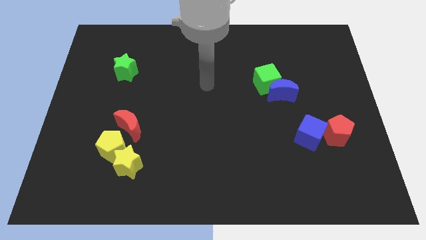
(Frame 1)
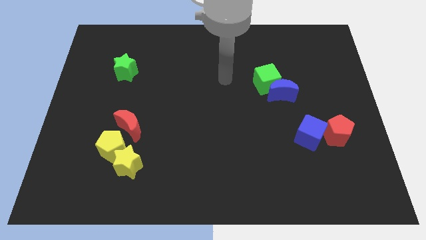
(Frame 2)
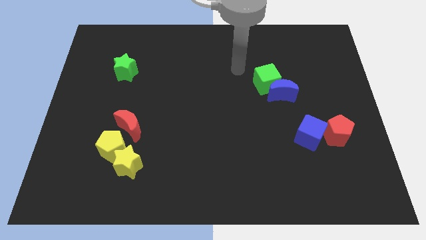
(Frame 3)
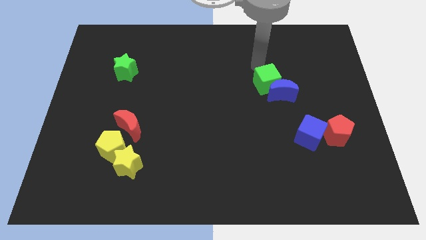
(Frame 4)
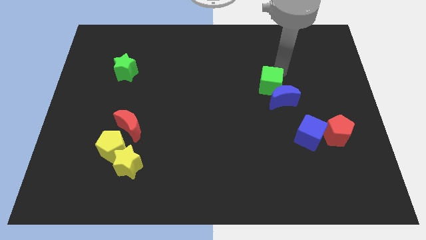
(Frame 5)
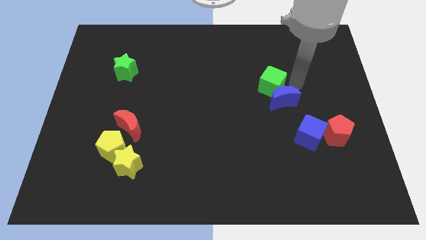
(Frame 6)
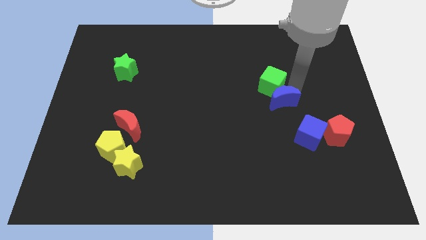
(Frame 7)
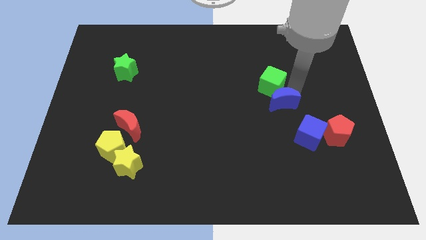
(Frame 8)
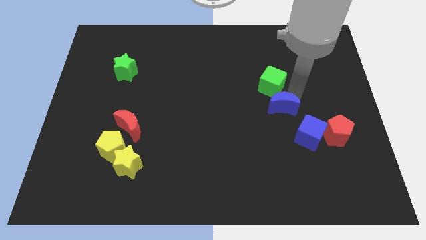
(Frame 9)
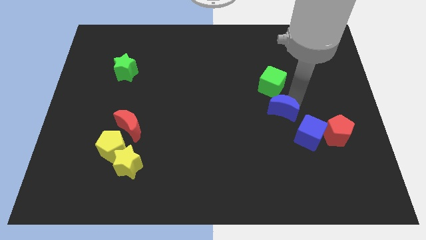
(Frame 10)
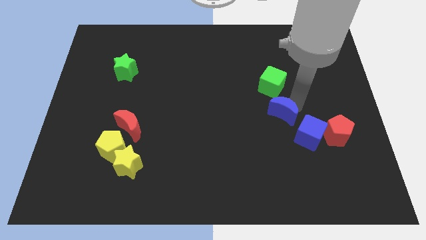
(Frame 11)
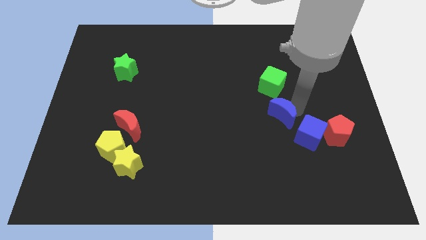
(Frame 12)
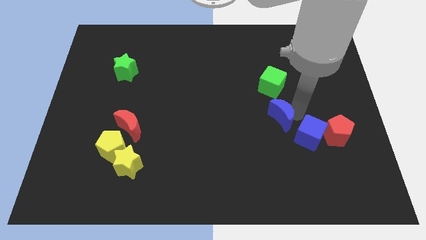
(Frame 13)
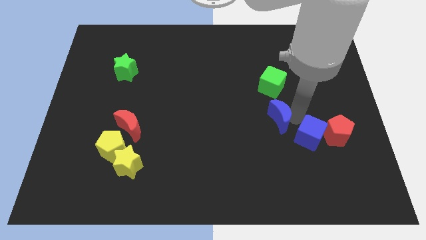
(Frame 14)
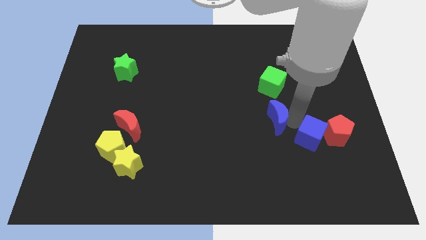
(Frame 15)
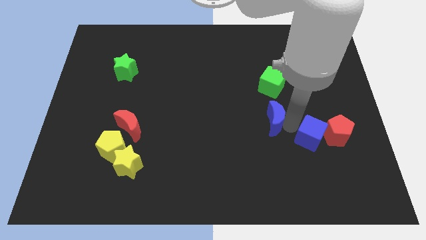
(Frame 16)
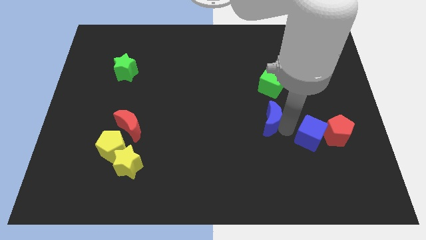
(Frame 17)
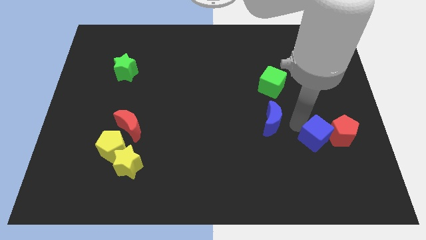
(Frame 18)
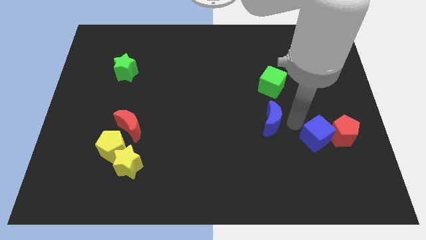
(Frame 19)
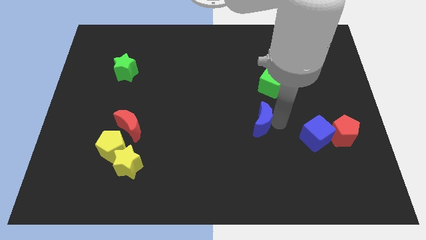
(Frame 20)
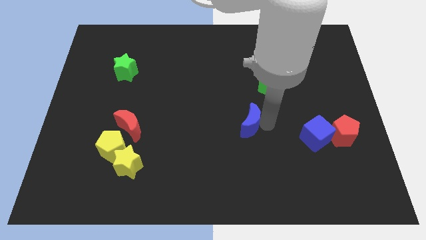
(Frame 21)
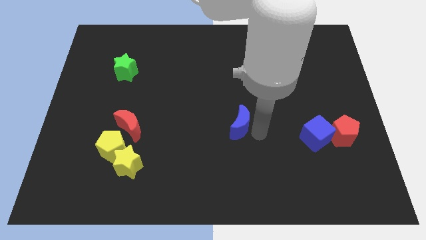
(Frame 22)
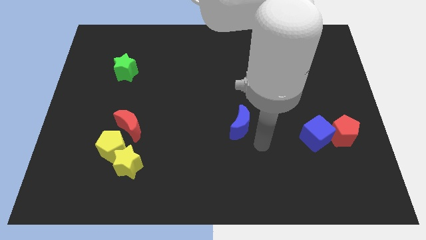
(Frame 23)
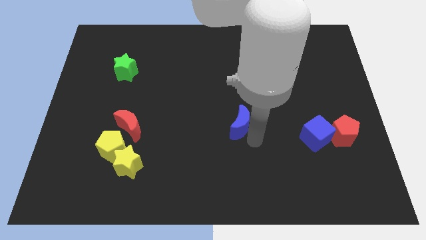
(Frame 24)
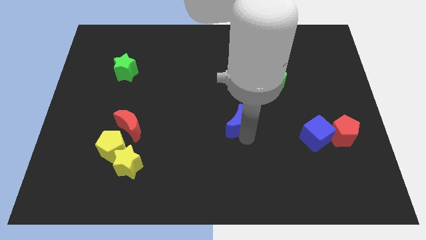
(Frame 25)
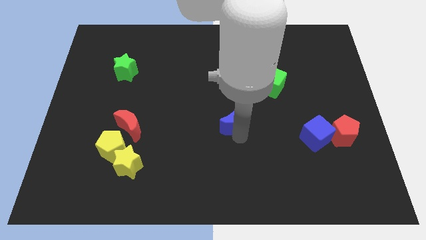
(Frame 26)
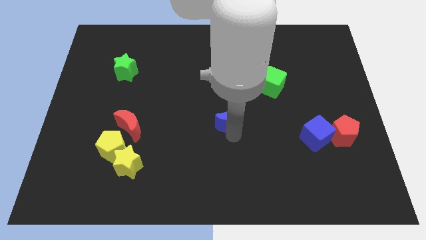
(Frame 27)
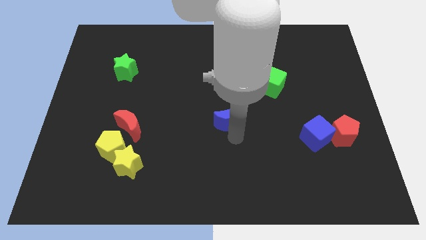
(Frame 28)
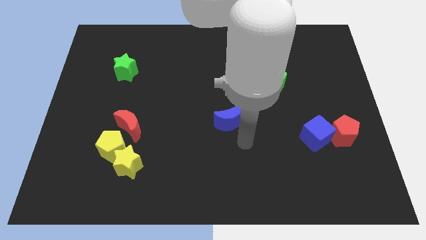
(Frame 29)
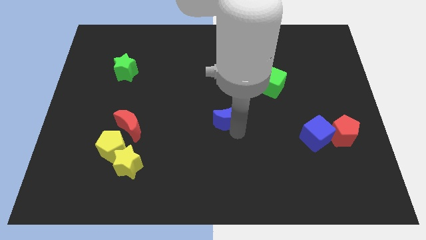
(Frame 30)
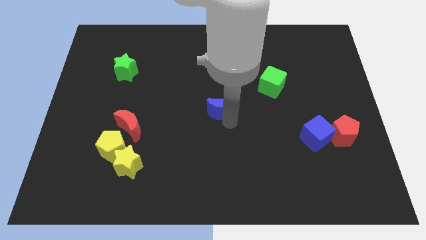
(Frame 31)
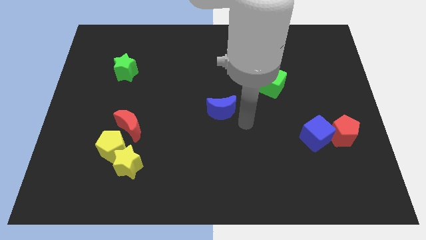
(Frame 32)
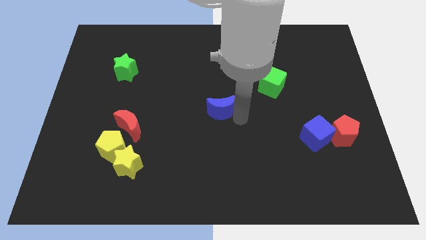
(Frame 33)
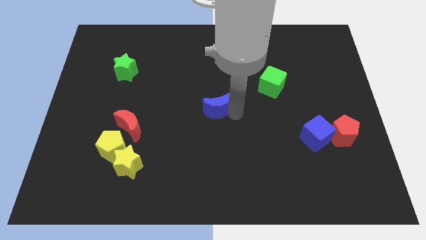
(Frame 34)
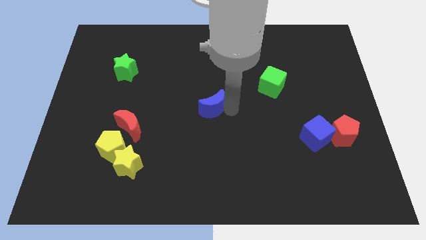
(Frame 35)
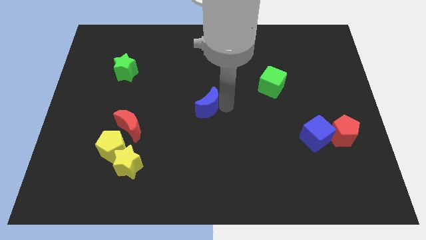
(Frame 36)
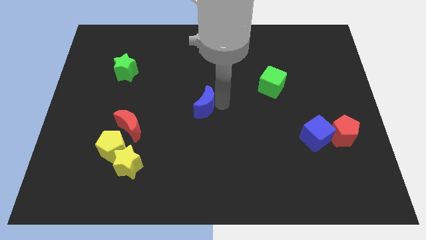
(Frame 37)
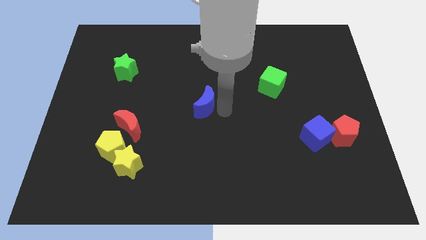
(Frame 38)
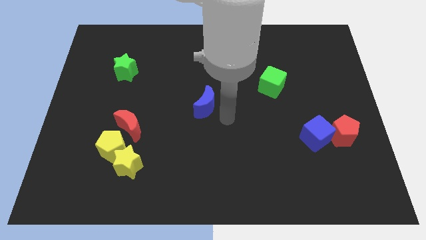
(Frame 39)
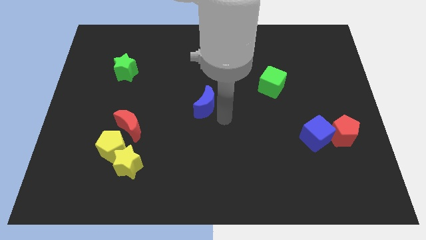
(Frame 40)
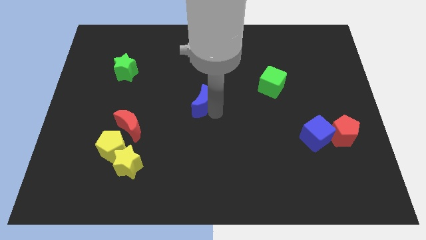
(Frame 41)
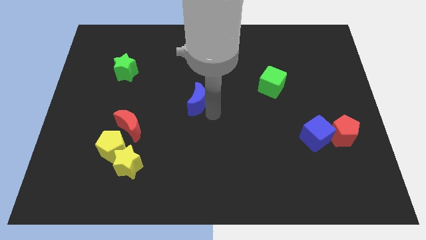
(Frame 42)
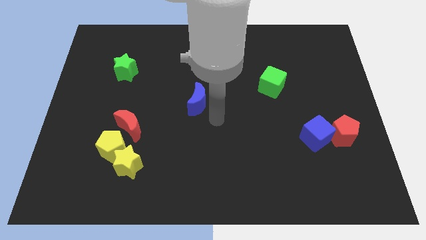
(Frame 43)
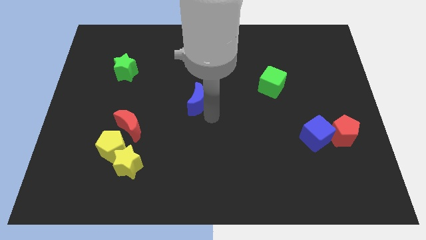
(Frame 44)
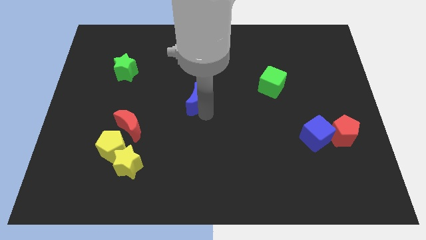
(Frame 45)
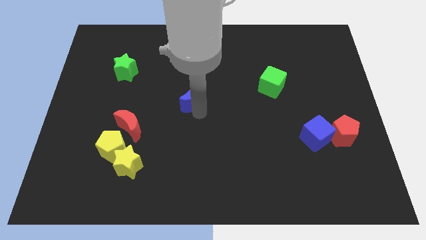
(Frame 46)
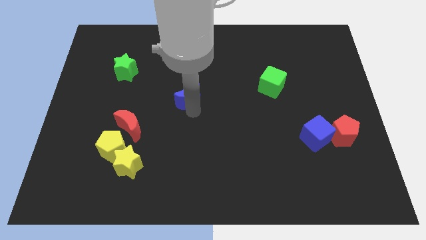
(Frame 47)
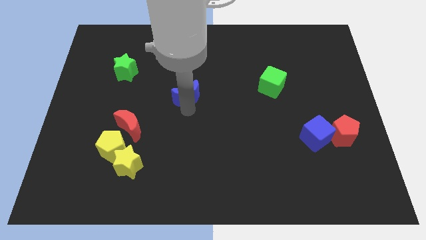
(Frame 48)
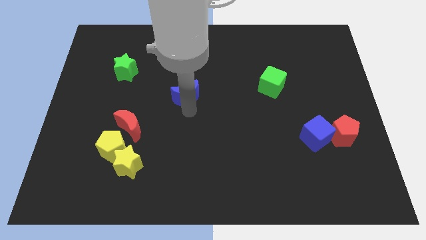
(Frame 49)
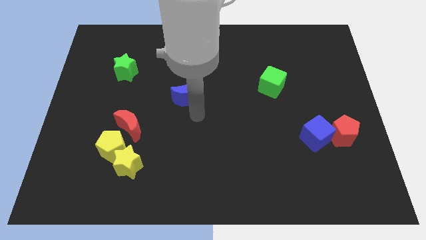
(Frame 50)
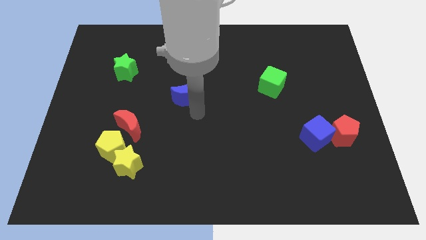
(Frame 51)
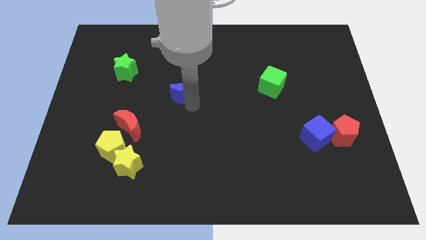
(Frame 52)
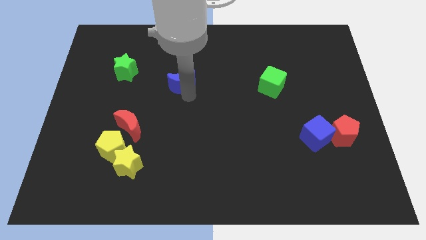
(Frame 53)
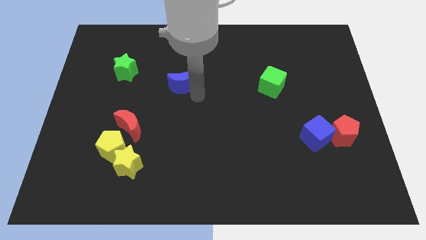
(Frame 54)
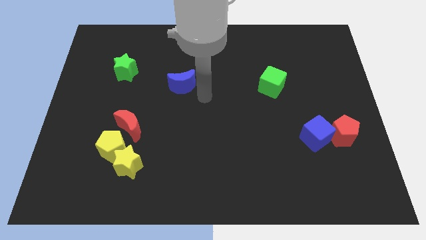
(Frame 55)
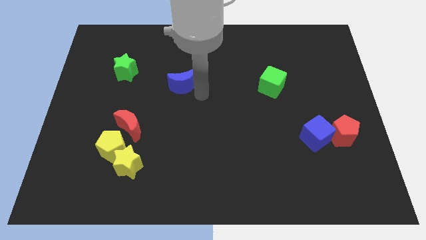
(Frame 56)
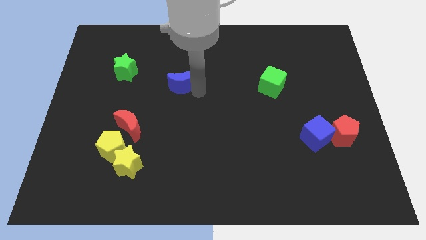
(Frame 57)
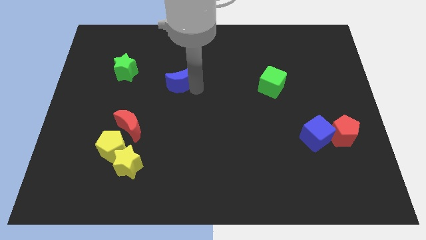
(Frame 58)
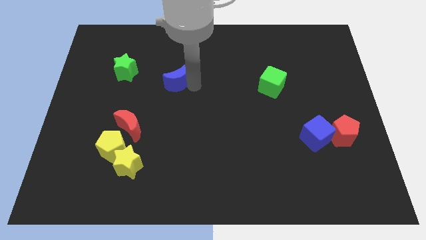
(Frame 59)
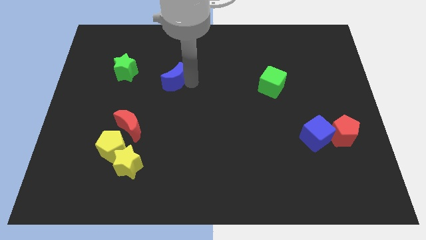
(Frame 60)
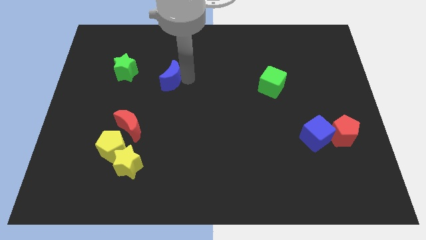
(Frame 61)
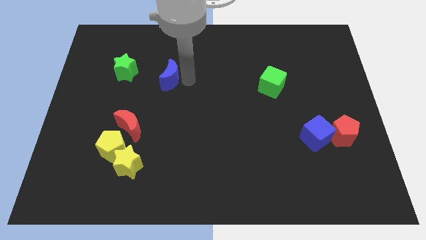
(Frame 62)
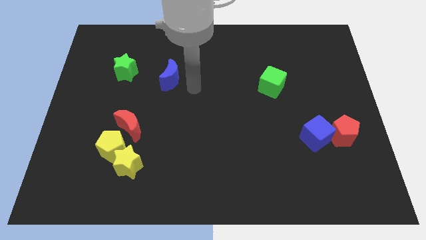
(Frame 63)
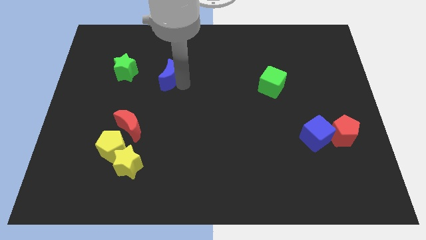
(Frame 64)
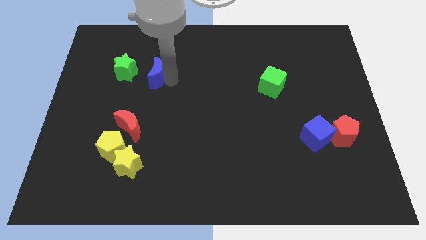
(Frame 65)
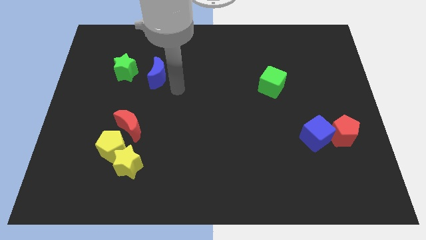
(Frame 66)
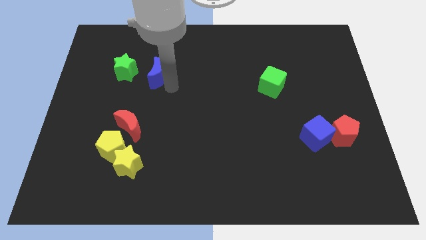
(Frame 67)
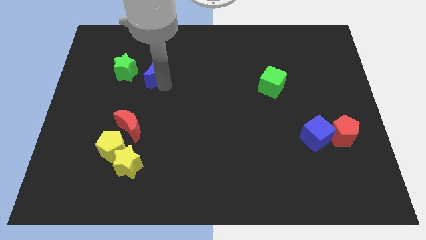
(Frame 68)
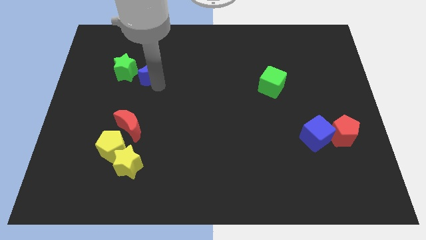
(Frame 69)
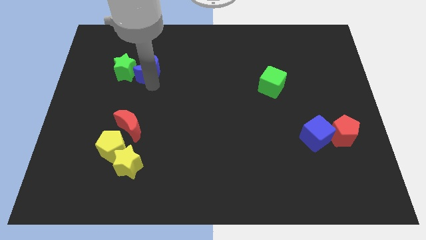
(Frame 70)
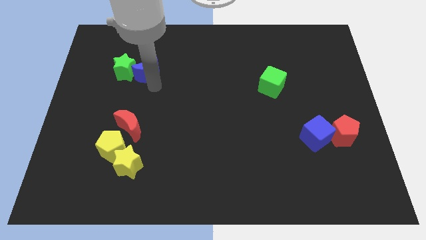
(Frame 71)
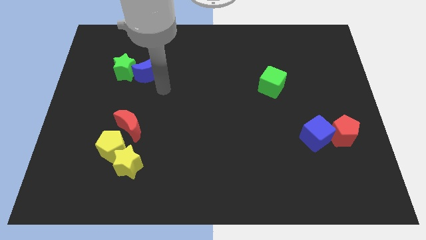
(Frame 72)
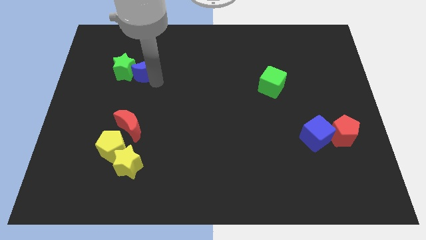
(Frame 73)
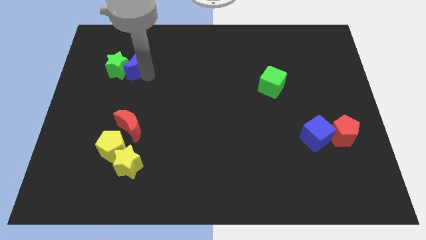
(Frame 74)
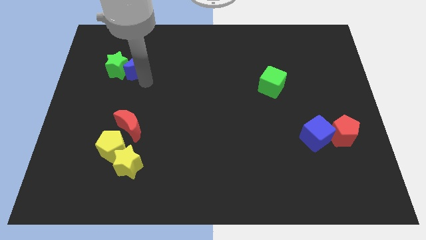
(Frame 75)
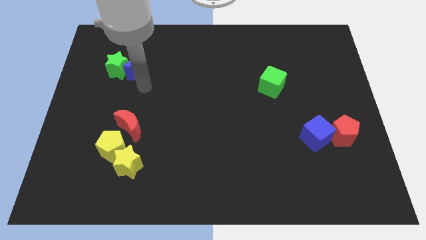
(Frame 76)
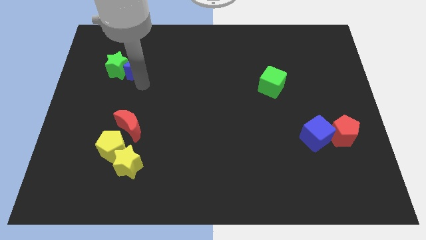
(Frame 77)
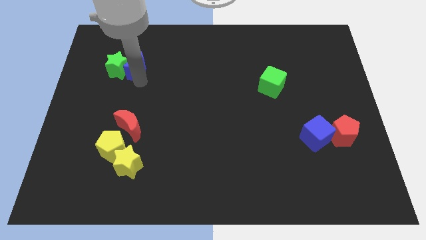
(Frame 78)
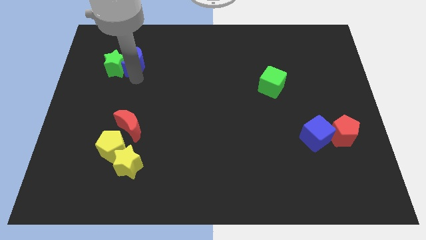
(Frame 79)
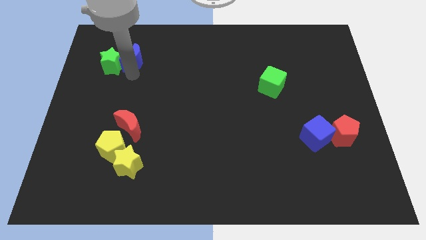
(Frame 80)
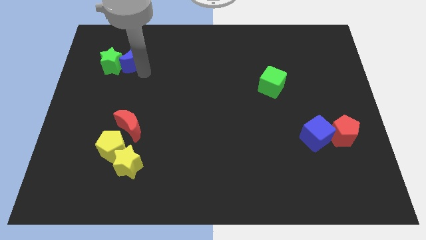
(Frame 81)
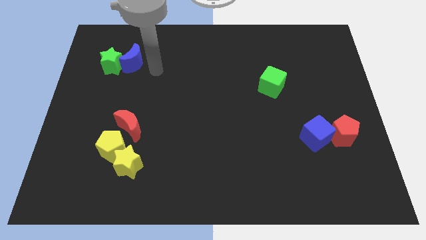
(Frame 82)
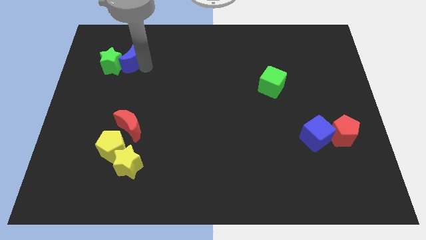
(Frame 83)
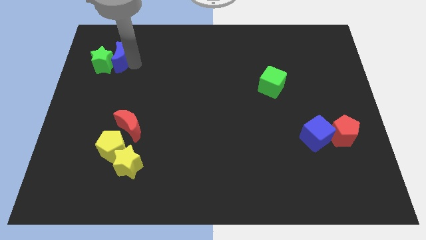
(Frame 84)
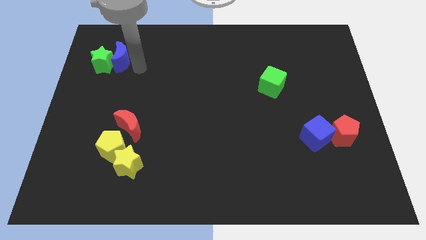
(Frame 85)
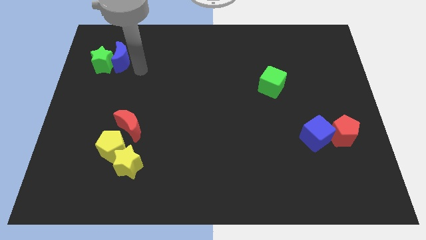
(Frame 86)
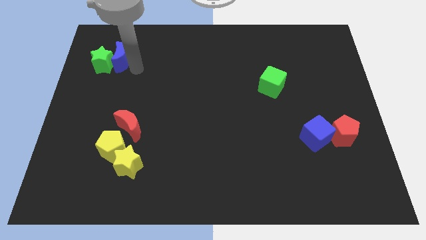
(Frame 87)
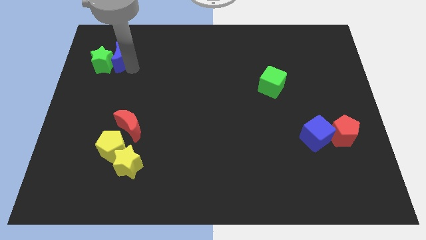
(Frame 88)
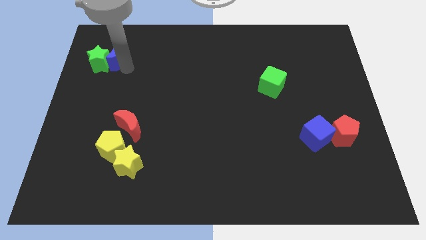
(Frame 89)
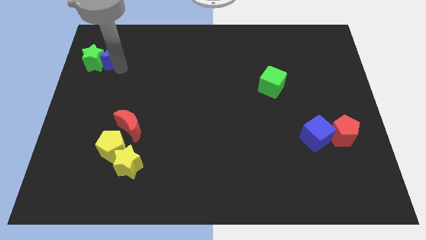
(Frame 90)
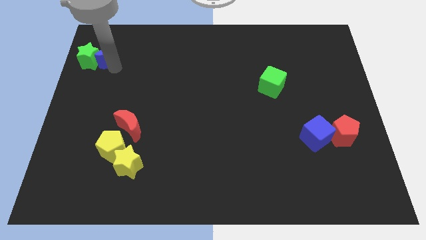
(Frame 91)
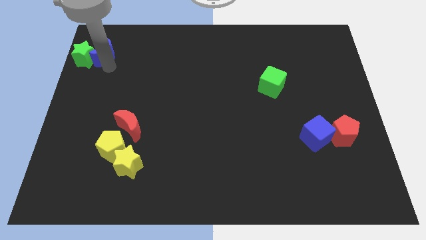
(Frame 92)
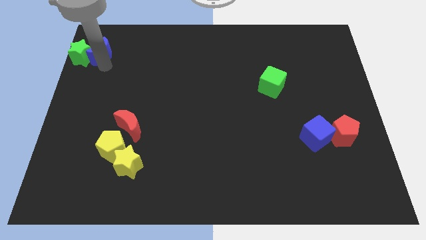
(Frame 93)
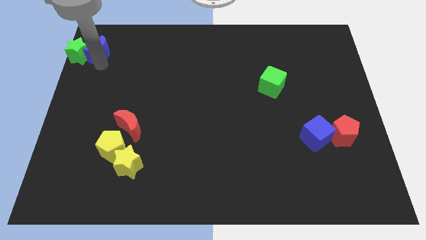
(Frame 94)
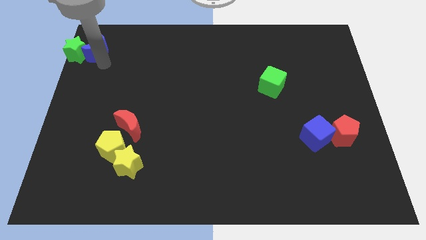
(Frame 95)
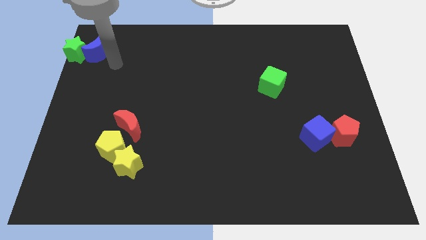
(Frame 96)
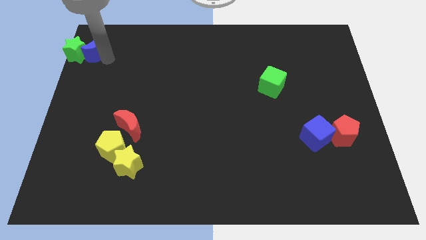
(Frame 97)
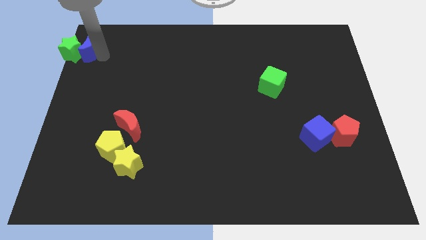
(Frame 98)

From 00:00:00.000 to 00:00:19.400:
slide the blue moon to the upper left corner
